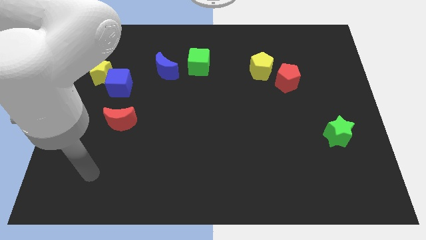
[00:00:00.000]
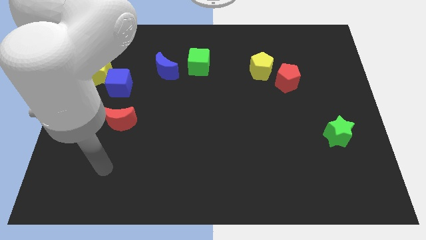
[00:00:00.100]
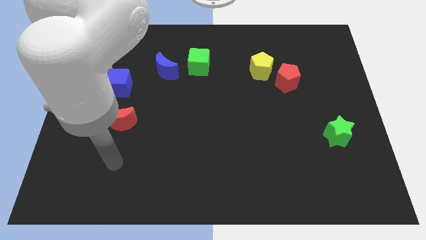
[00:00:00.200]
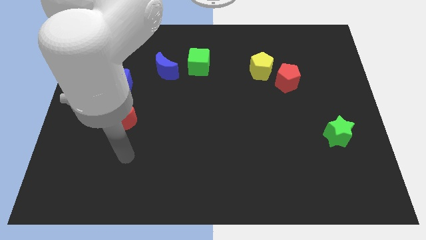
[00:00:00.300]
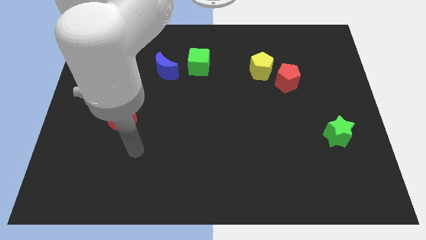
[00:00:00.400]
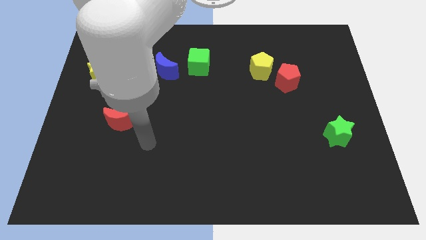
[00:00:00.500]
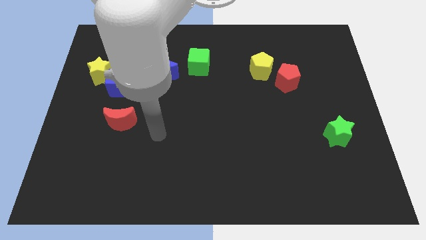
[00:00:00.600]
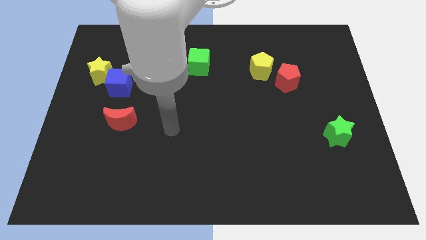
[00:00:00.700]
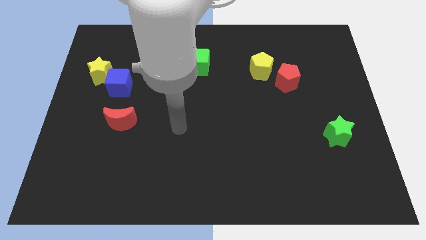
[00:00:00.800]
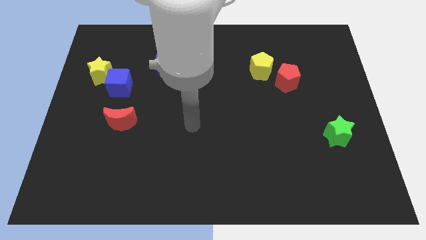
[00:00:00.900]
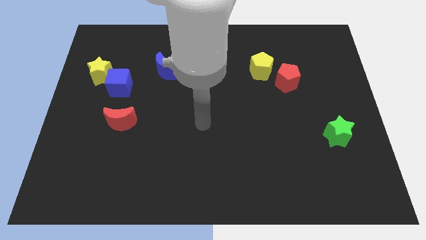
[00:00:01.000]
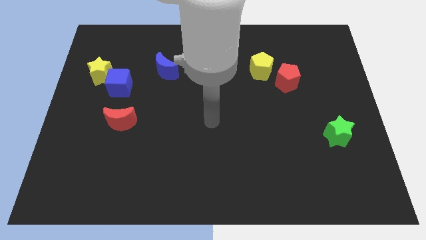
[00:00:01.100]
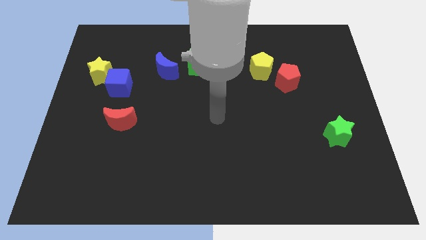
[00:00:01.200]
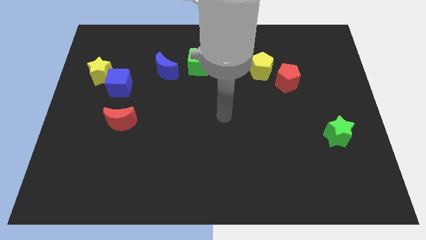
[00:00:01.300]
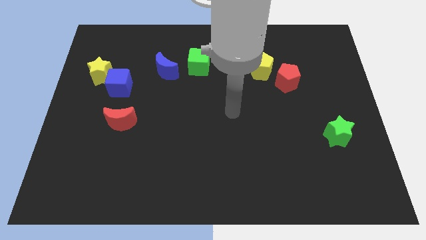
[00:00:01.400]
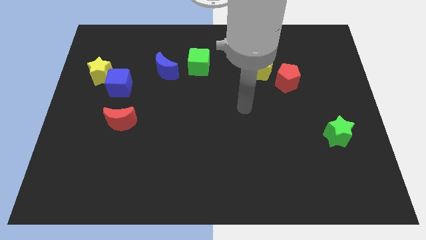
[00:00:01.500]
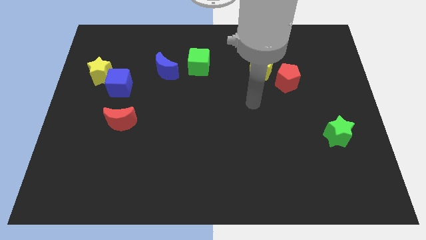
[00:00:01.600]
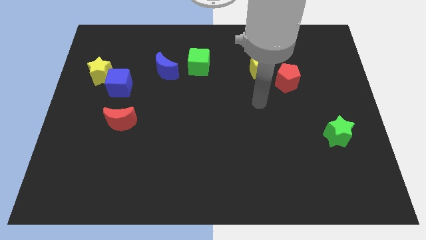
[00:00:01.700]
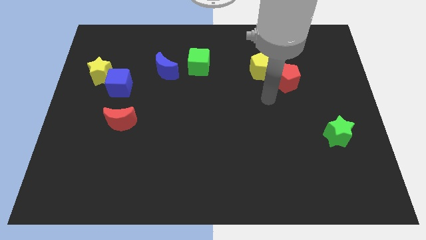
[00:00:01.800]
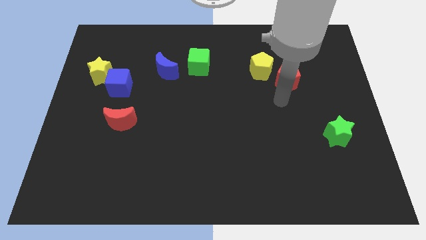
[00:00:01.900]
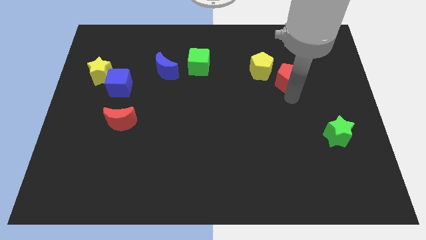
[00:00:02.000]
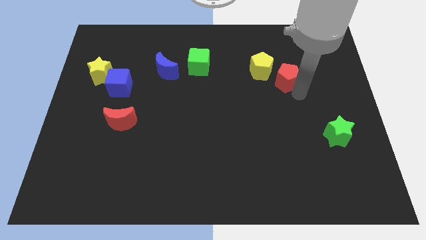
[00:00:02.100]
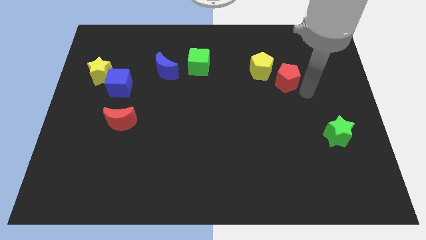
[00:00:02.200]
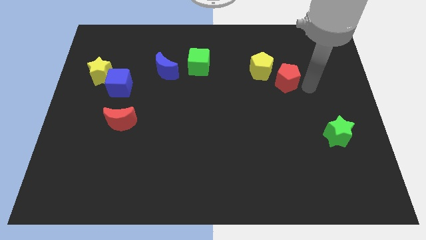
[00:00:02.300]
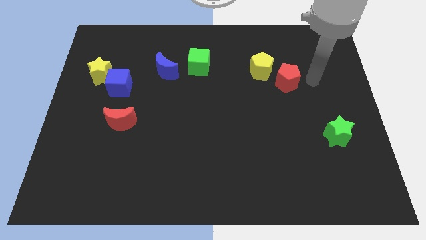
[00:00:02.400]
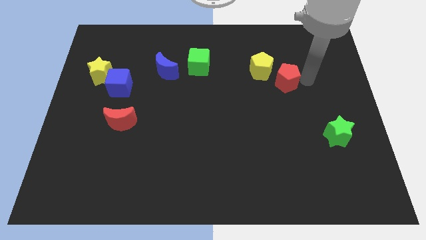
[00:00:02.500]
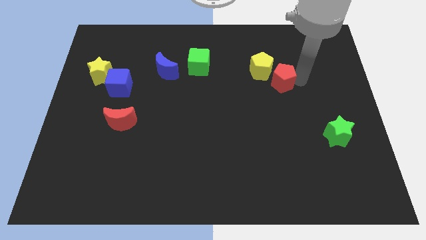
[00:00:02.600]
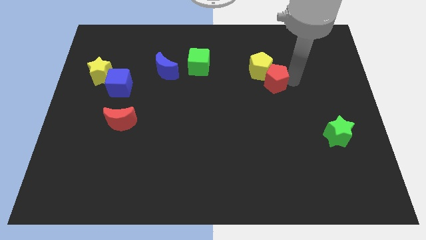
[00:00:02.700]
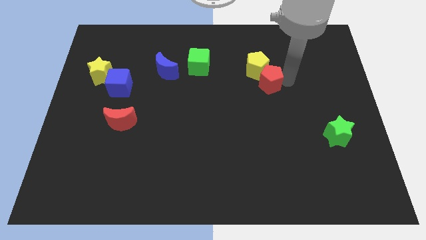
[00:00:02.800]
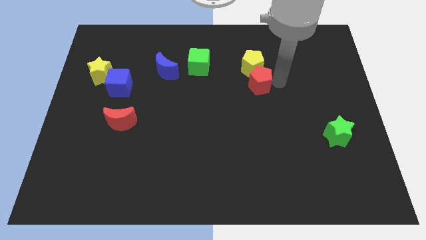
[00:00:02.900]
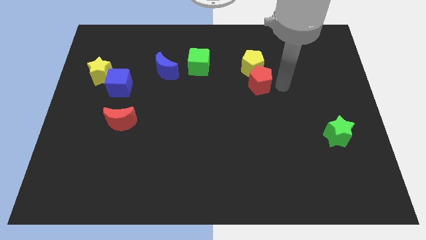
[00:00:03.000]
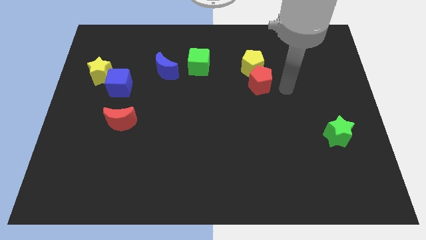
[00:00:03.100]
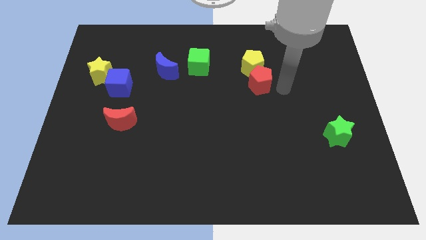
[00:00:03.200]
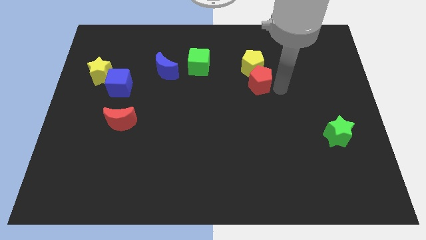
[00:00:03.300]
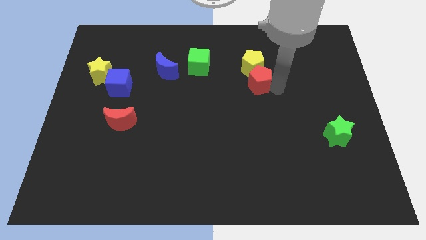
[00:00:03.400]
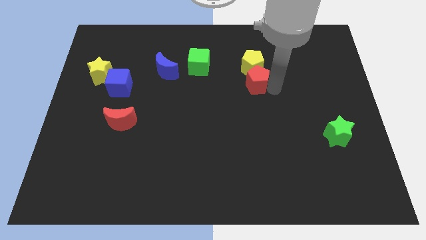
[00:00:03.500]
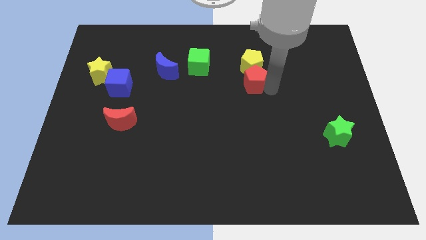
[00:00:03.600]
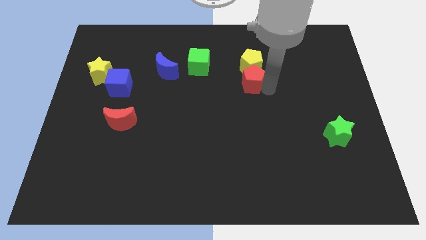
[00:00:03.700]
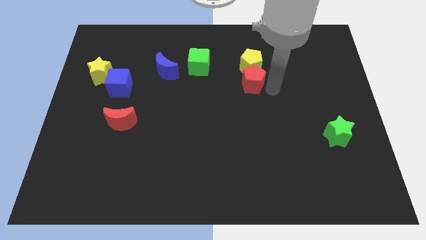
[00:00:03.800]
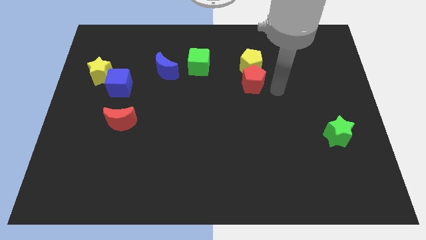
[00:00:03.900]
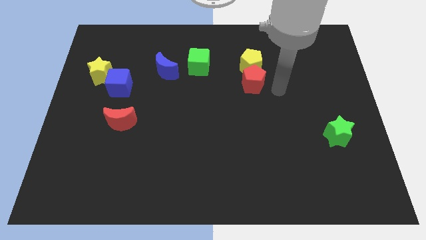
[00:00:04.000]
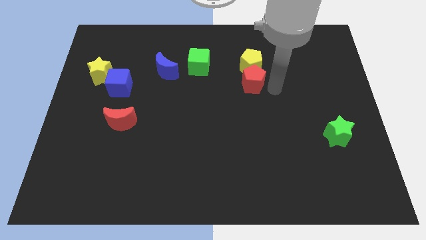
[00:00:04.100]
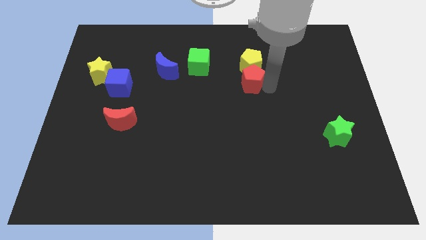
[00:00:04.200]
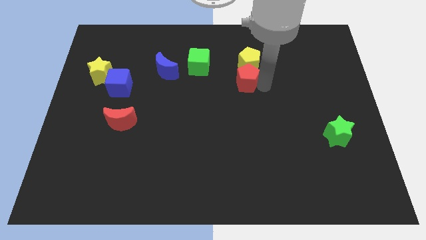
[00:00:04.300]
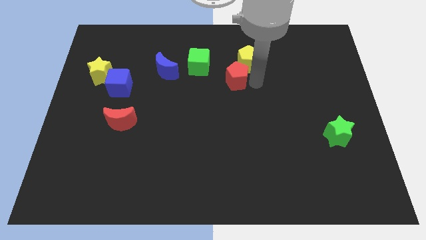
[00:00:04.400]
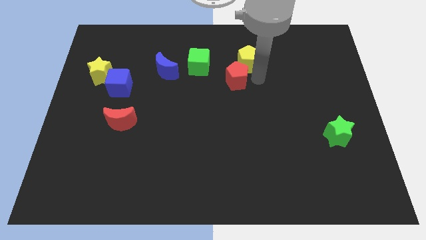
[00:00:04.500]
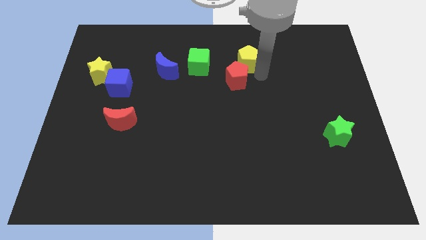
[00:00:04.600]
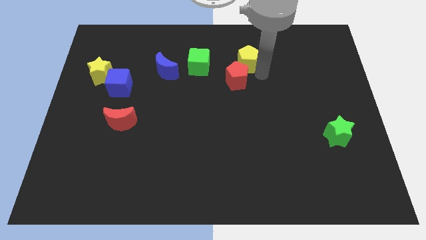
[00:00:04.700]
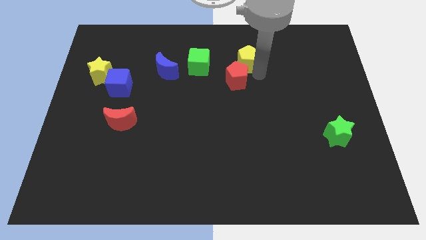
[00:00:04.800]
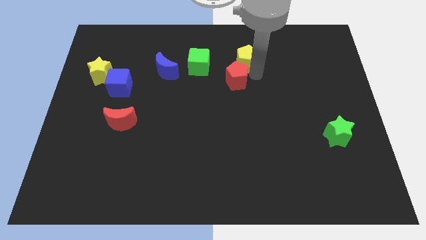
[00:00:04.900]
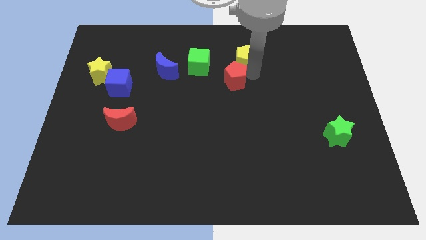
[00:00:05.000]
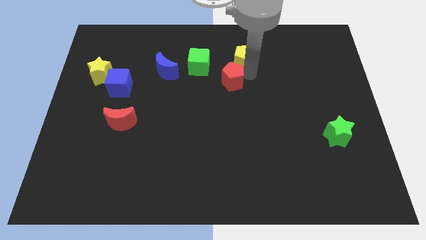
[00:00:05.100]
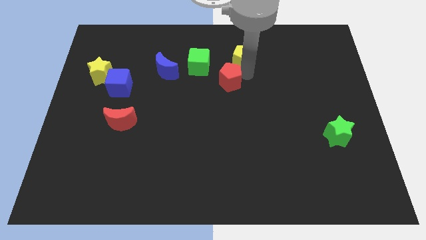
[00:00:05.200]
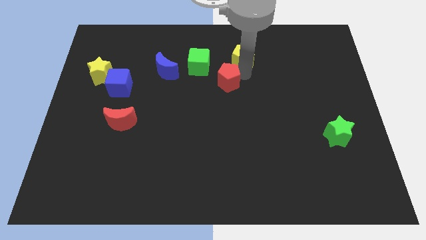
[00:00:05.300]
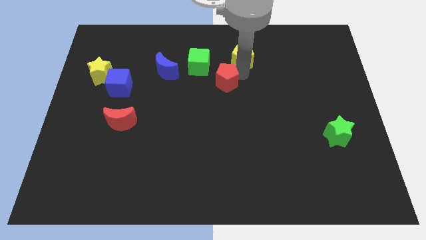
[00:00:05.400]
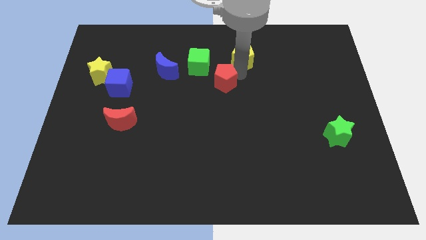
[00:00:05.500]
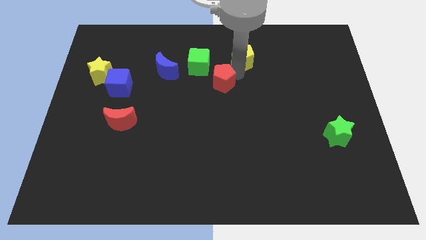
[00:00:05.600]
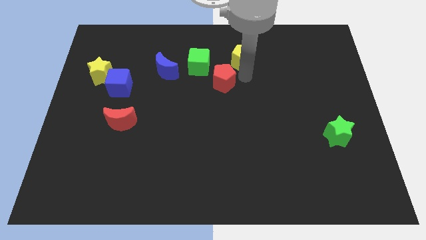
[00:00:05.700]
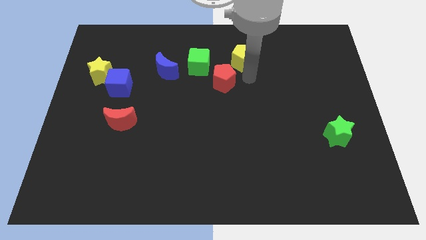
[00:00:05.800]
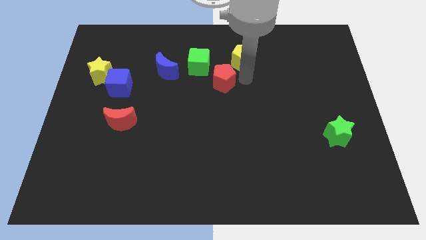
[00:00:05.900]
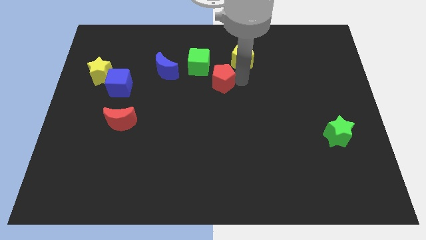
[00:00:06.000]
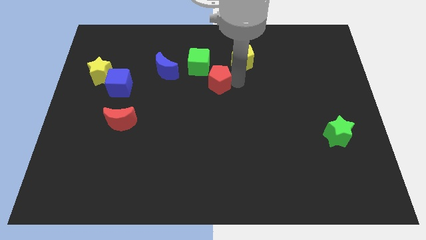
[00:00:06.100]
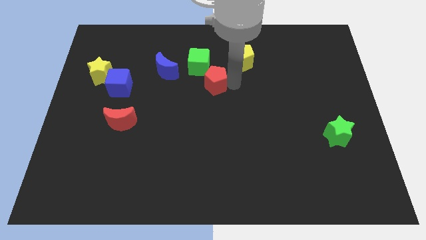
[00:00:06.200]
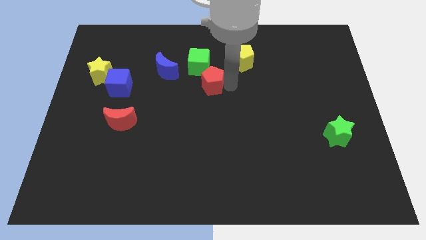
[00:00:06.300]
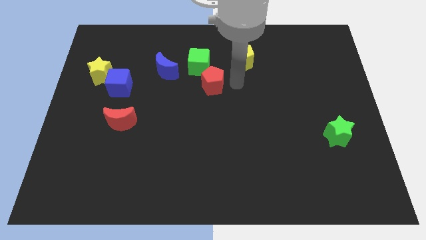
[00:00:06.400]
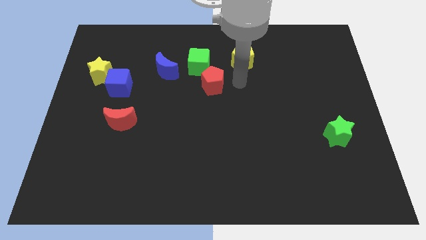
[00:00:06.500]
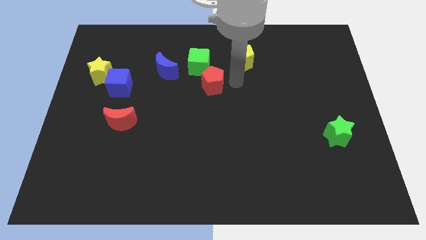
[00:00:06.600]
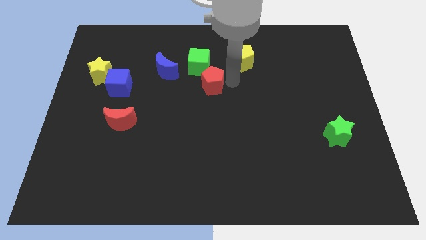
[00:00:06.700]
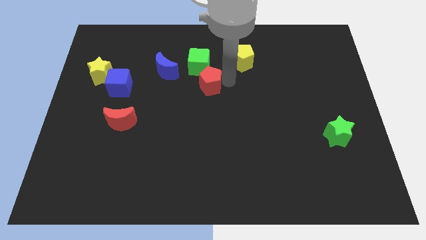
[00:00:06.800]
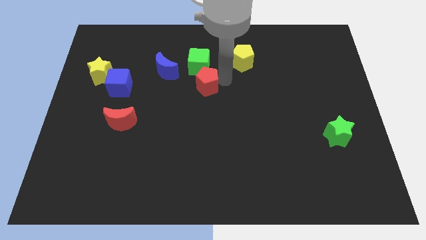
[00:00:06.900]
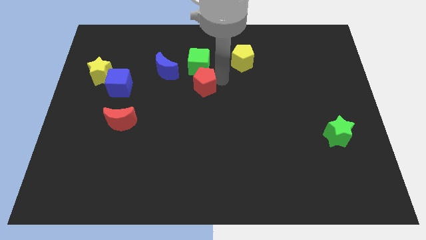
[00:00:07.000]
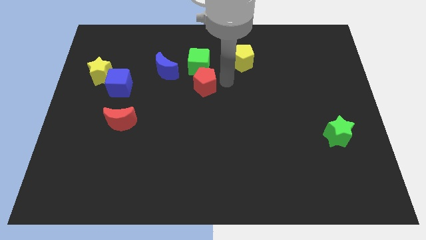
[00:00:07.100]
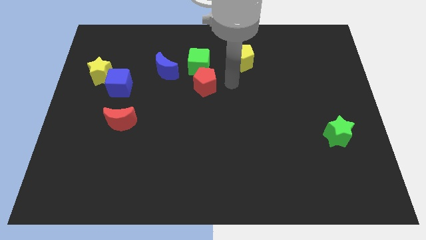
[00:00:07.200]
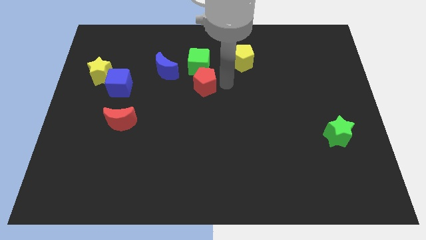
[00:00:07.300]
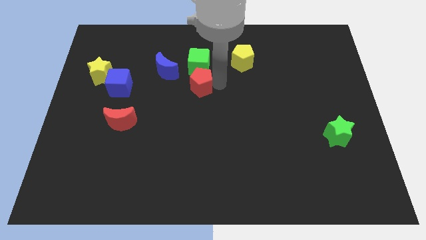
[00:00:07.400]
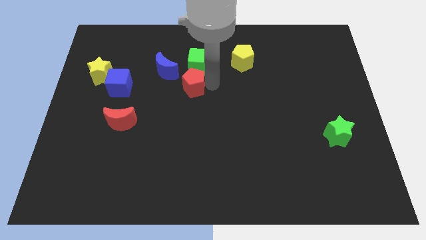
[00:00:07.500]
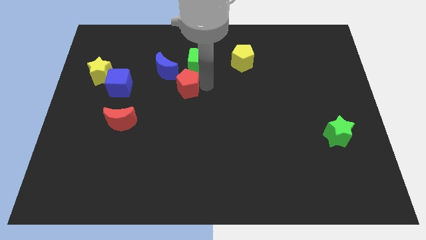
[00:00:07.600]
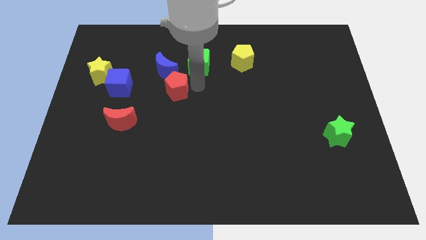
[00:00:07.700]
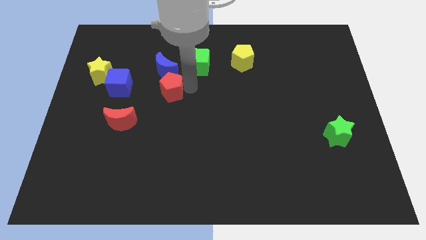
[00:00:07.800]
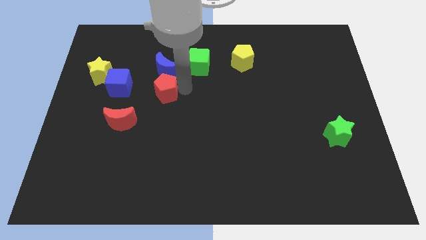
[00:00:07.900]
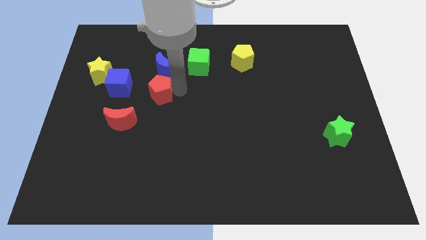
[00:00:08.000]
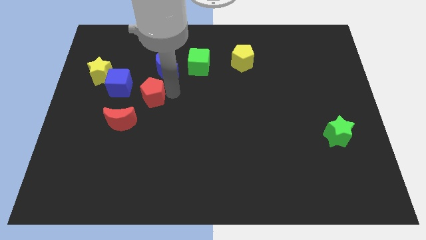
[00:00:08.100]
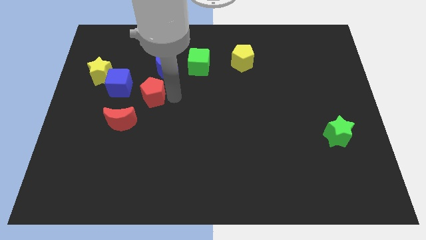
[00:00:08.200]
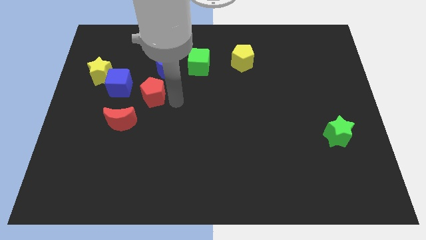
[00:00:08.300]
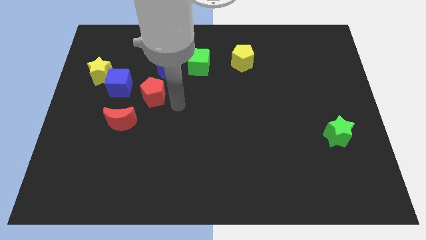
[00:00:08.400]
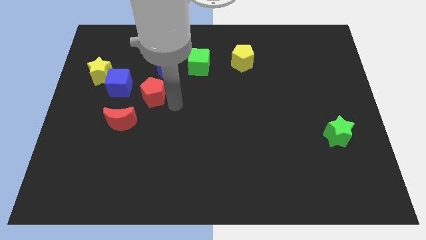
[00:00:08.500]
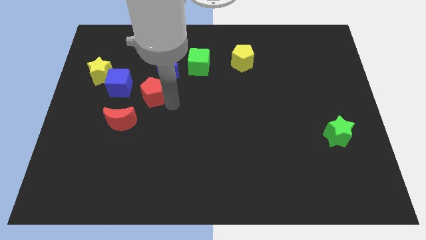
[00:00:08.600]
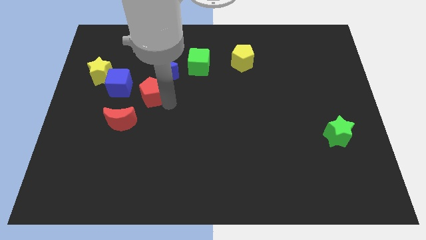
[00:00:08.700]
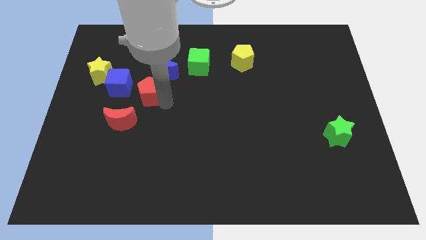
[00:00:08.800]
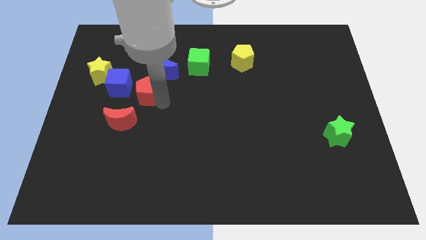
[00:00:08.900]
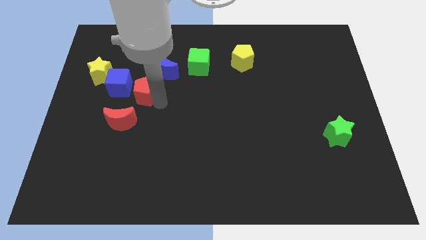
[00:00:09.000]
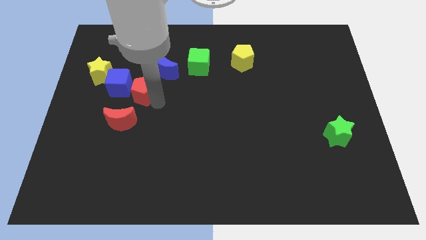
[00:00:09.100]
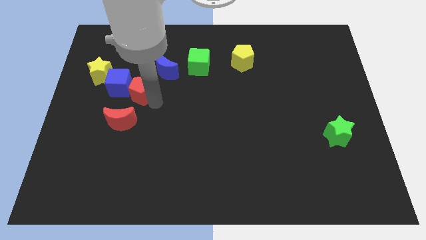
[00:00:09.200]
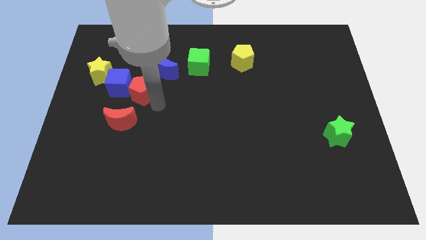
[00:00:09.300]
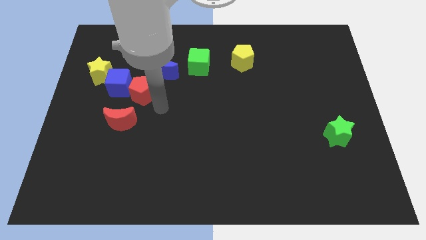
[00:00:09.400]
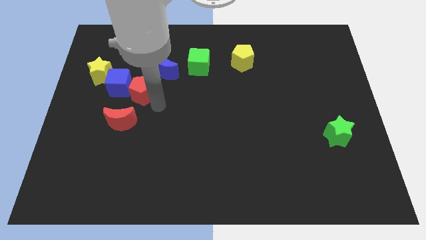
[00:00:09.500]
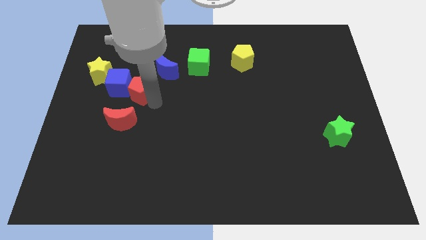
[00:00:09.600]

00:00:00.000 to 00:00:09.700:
put the red pentagon to the blue cube
